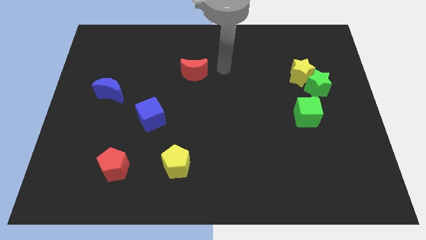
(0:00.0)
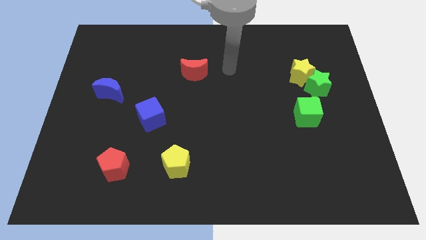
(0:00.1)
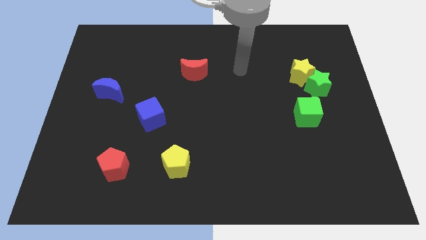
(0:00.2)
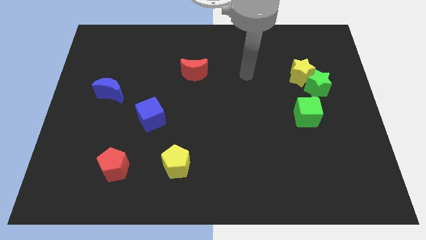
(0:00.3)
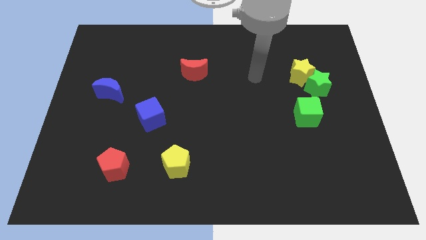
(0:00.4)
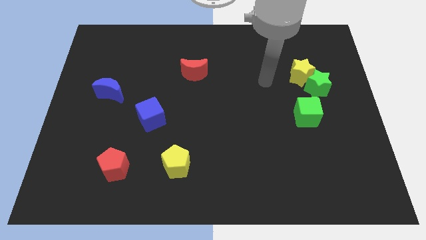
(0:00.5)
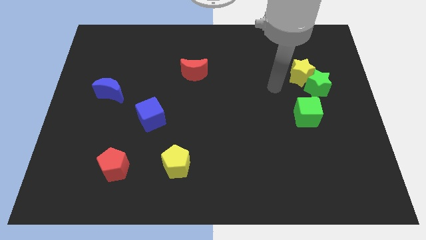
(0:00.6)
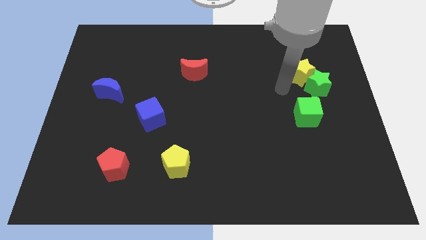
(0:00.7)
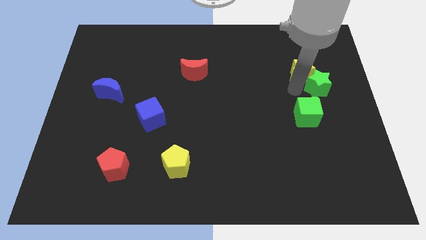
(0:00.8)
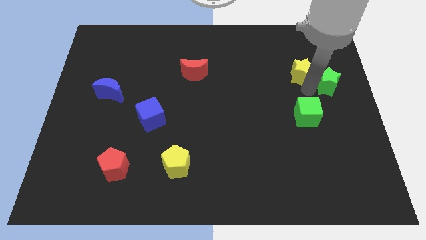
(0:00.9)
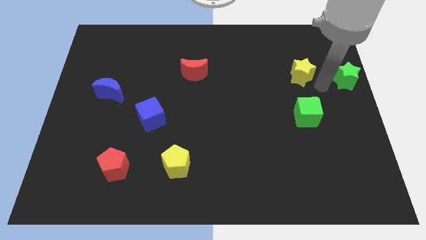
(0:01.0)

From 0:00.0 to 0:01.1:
separate the yellow star from the green star

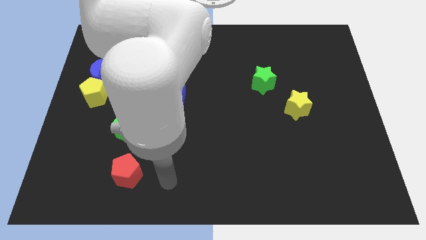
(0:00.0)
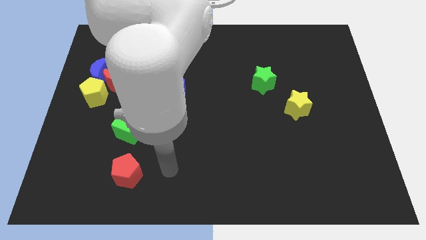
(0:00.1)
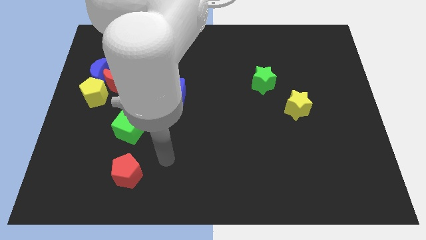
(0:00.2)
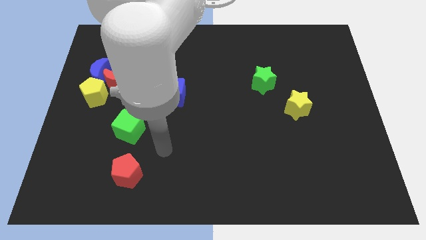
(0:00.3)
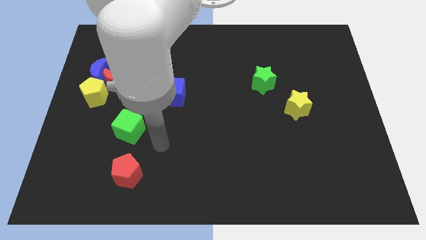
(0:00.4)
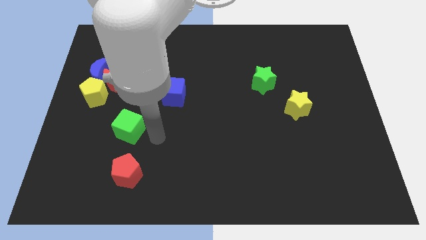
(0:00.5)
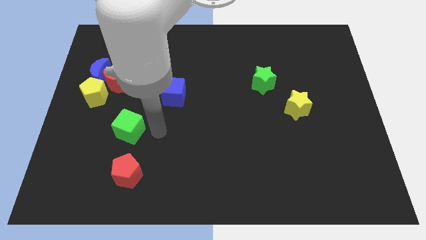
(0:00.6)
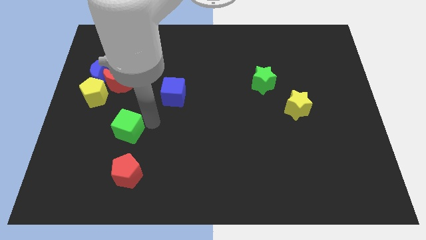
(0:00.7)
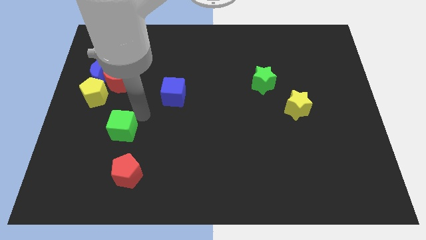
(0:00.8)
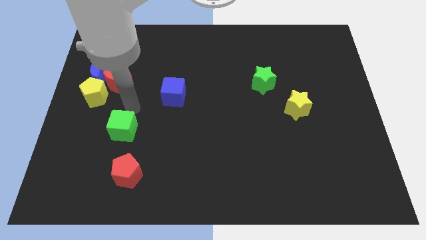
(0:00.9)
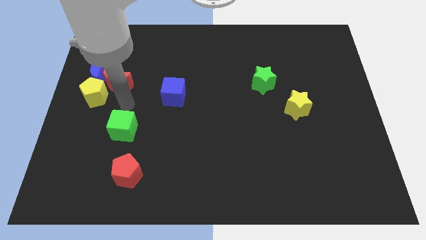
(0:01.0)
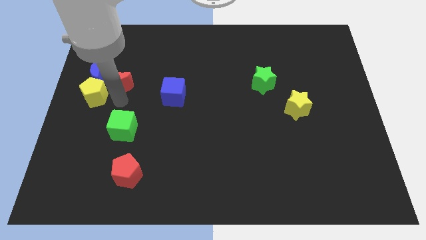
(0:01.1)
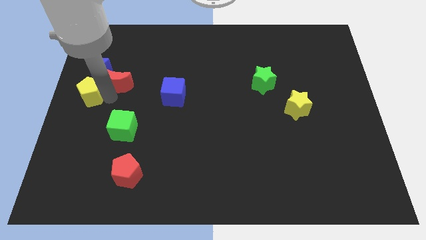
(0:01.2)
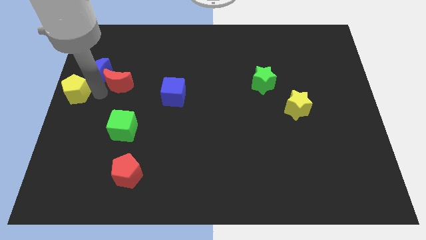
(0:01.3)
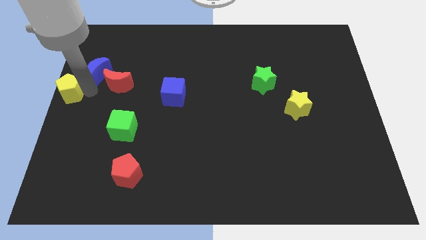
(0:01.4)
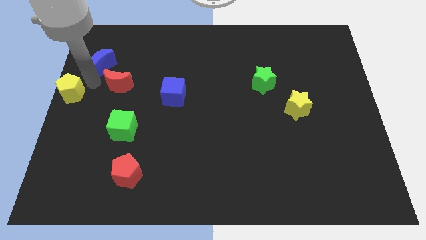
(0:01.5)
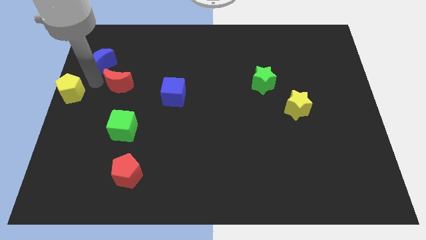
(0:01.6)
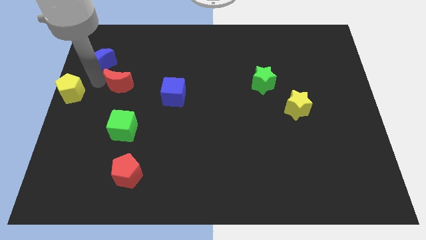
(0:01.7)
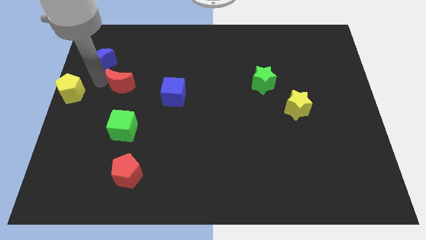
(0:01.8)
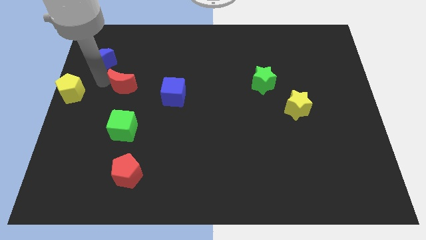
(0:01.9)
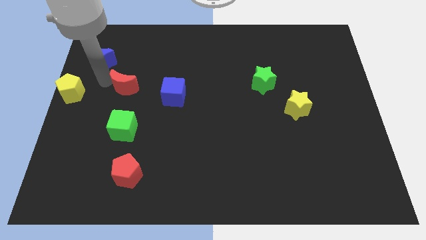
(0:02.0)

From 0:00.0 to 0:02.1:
separate the red moon from the blue moon and yellow pentagon

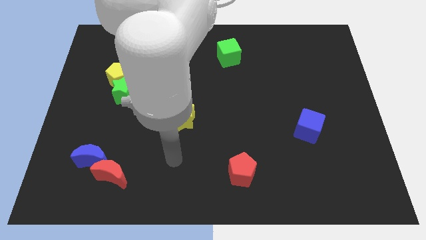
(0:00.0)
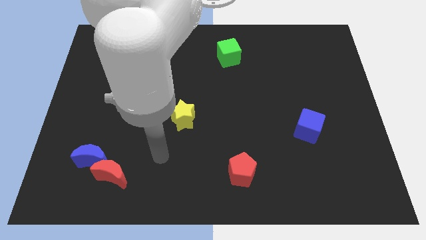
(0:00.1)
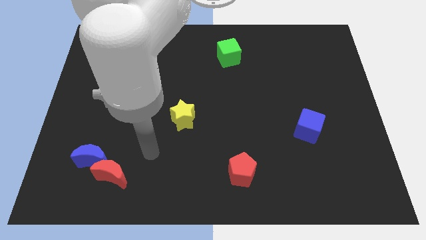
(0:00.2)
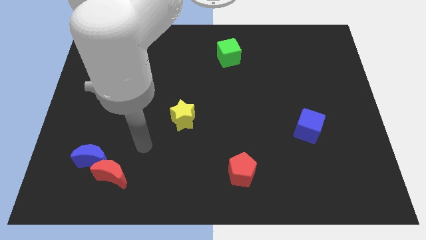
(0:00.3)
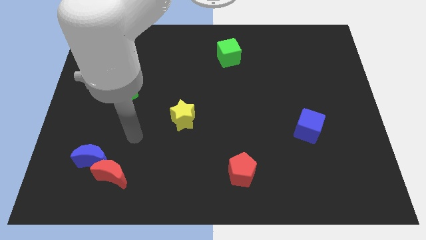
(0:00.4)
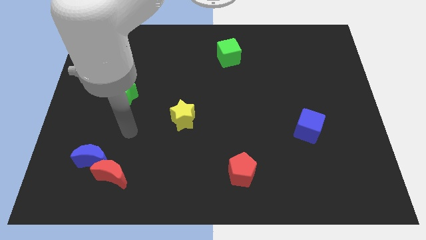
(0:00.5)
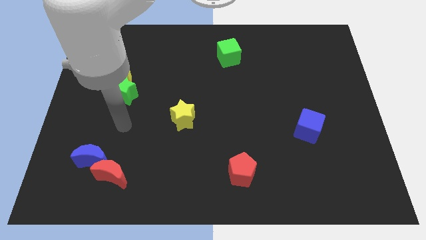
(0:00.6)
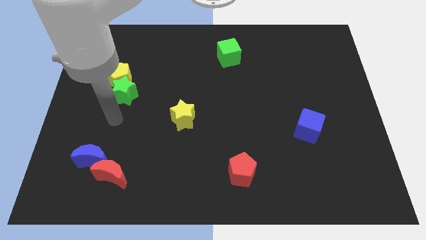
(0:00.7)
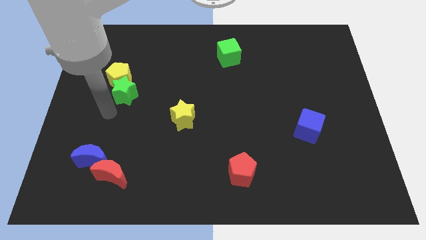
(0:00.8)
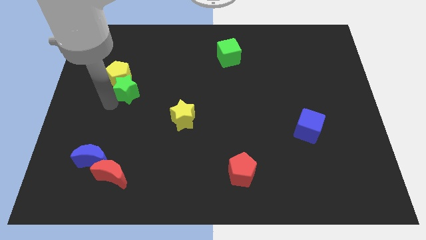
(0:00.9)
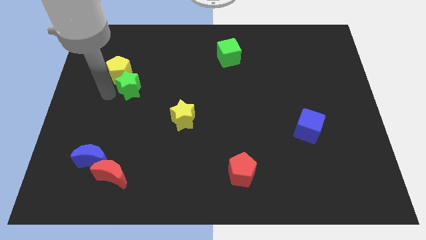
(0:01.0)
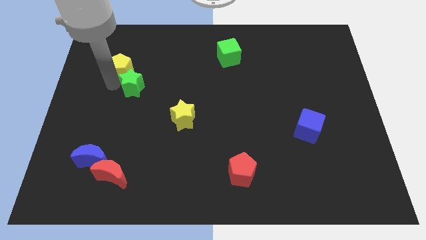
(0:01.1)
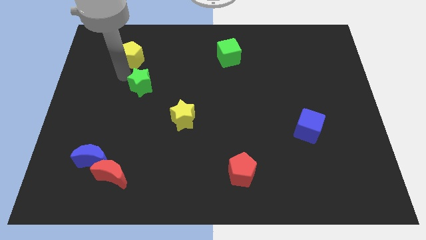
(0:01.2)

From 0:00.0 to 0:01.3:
separate the green star from the yellow pentagon

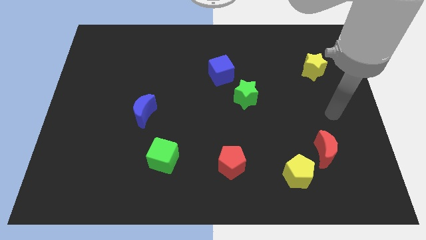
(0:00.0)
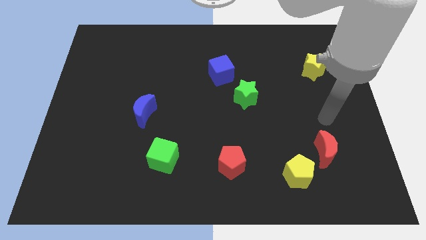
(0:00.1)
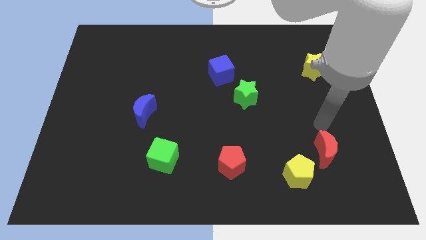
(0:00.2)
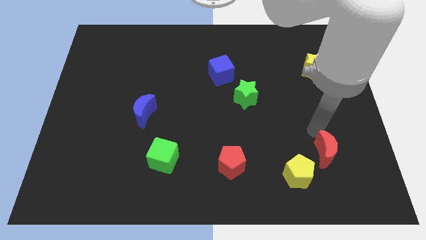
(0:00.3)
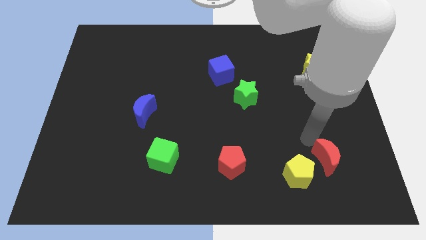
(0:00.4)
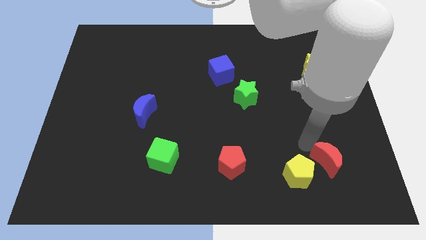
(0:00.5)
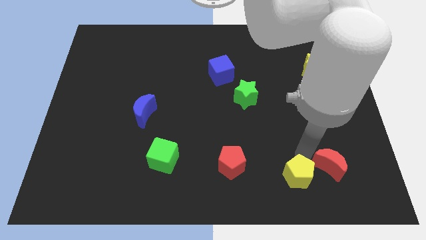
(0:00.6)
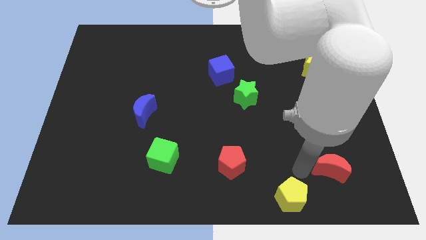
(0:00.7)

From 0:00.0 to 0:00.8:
pull the red moon apart from the yellow pentagon

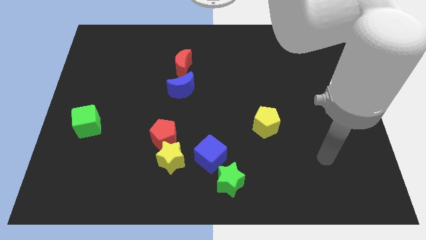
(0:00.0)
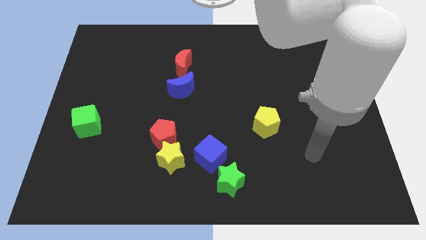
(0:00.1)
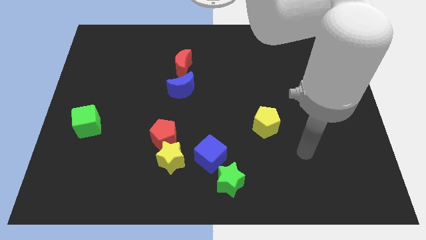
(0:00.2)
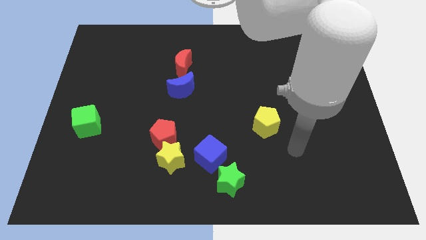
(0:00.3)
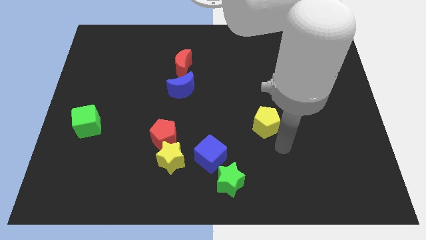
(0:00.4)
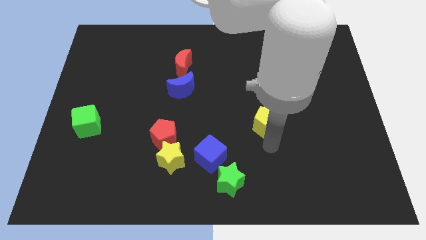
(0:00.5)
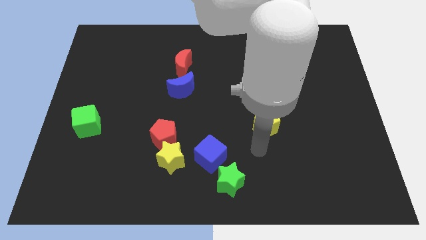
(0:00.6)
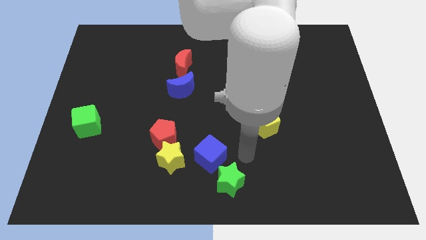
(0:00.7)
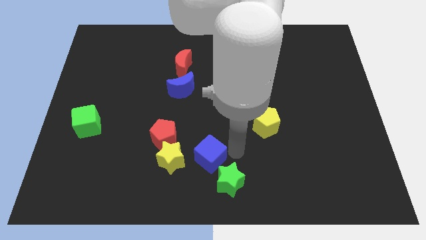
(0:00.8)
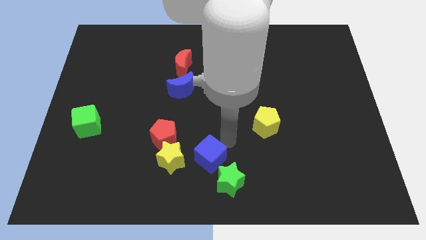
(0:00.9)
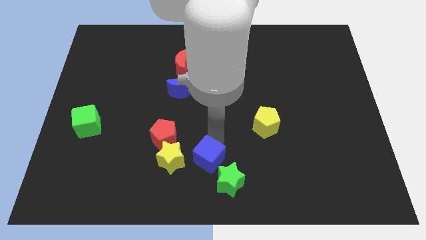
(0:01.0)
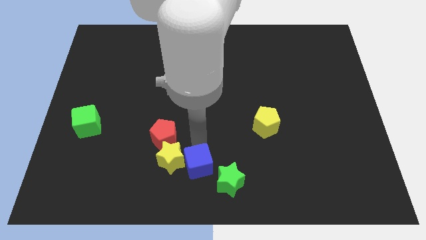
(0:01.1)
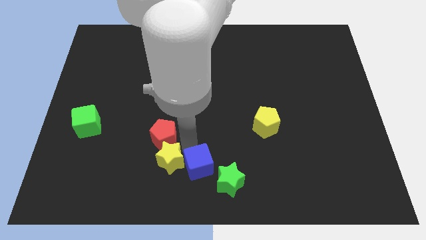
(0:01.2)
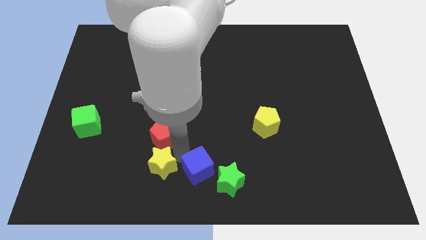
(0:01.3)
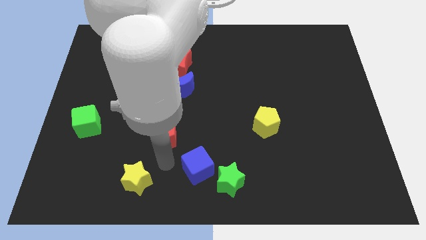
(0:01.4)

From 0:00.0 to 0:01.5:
pull the red pentagon apart from the yellow star

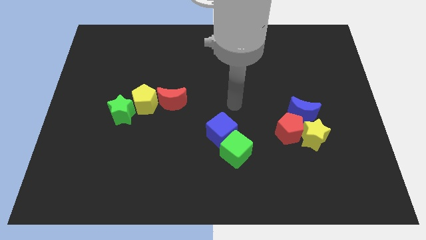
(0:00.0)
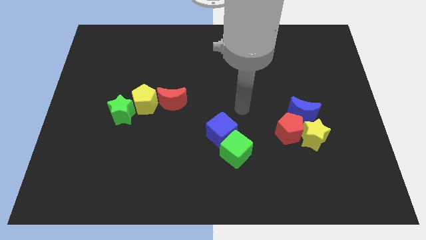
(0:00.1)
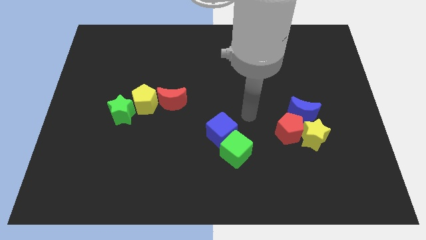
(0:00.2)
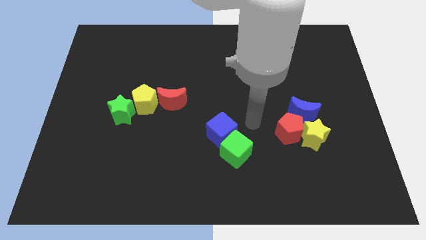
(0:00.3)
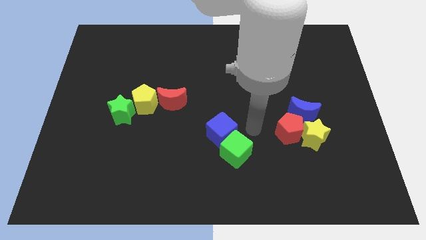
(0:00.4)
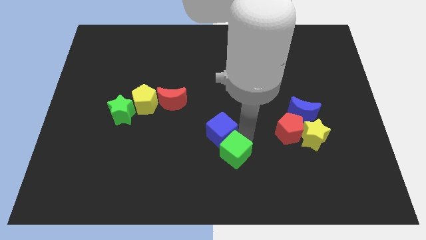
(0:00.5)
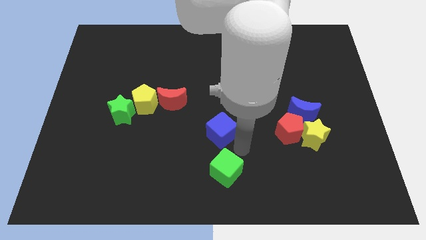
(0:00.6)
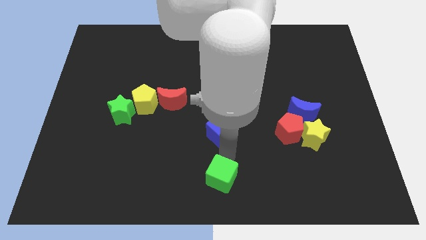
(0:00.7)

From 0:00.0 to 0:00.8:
move the blue cube away from the green cube

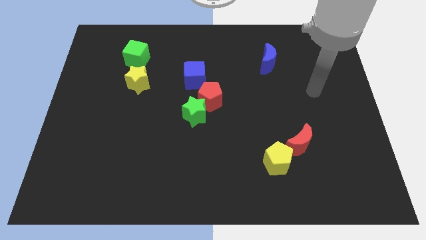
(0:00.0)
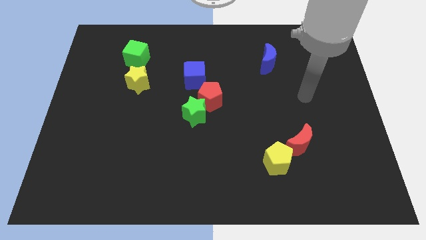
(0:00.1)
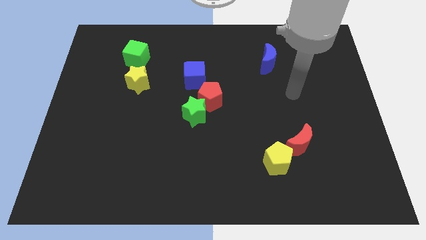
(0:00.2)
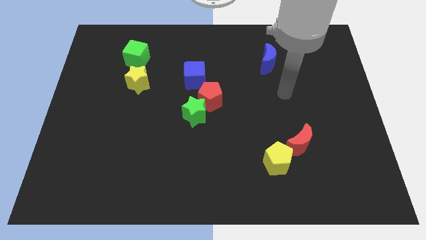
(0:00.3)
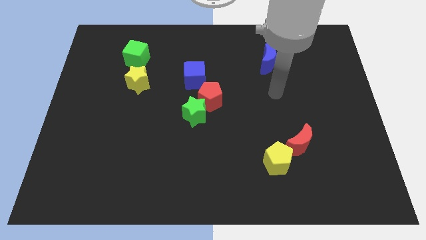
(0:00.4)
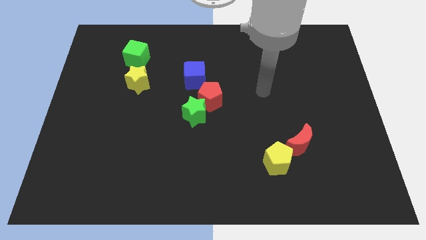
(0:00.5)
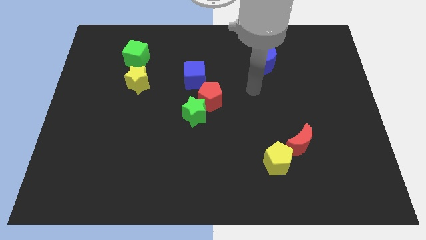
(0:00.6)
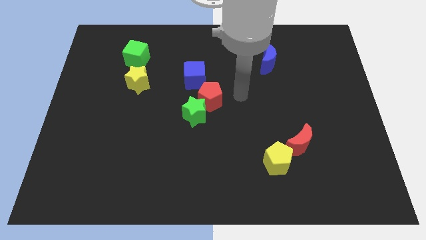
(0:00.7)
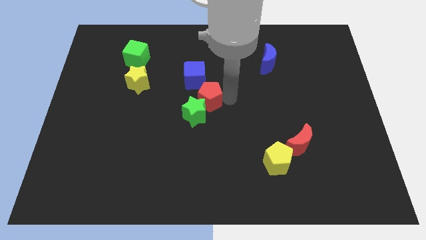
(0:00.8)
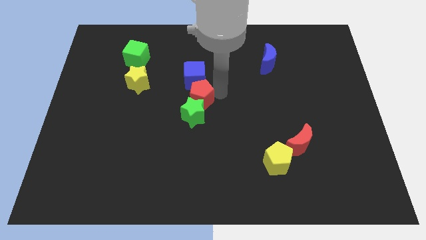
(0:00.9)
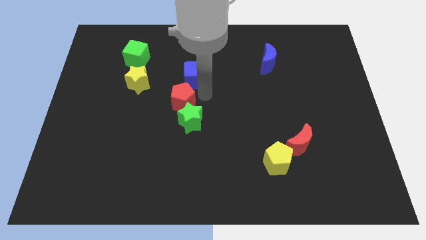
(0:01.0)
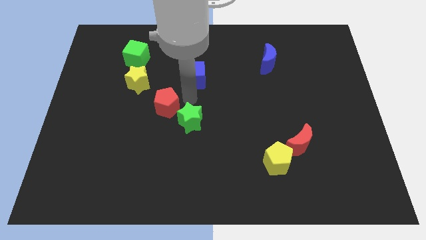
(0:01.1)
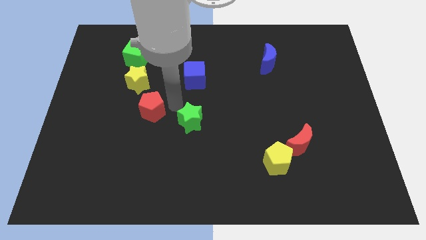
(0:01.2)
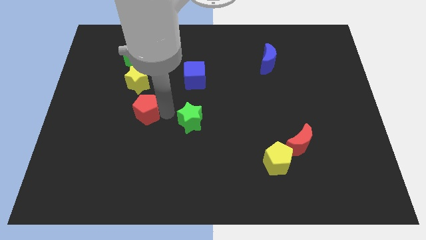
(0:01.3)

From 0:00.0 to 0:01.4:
separate the green star from the red pentagon

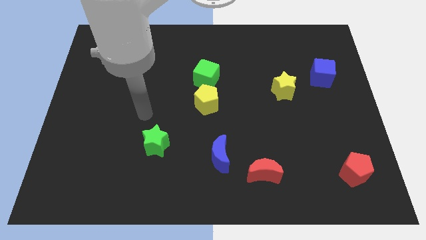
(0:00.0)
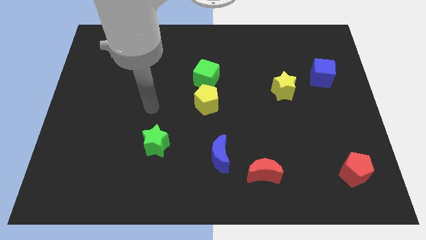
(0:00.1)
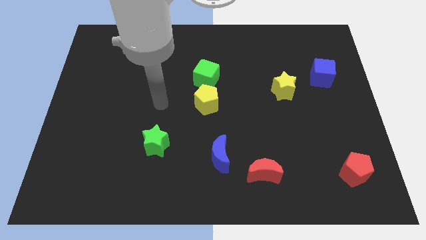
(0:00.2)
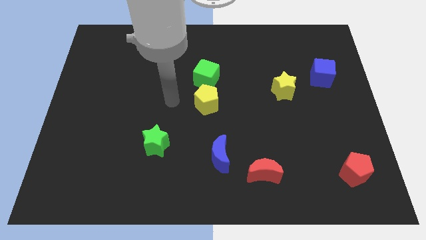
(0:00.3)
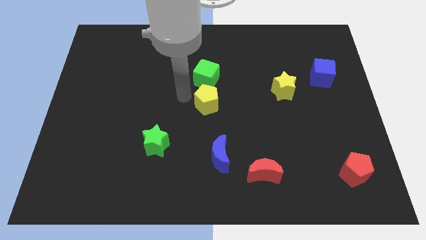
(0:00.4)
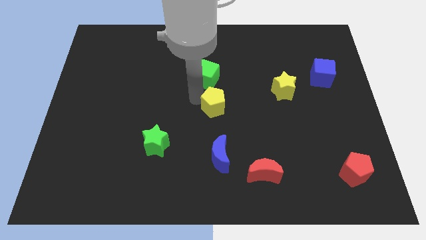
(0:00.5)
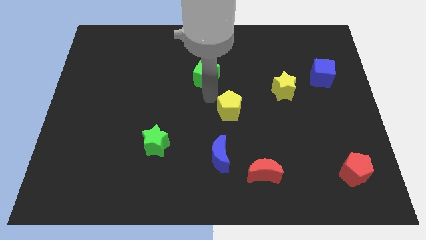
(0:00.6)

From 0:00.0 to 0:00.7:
separate the green cube from the yellow pentagon
